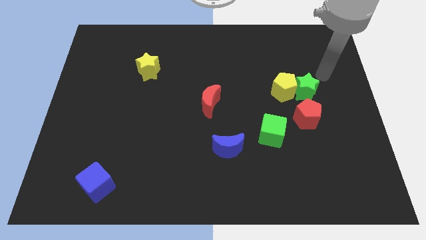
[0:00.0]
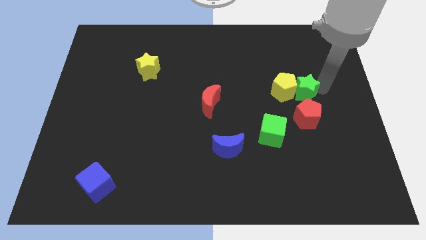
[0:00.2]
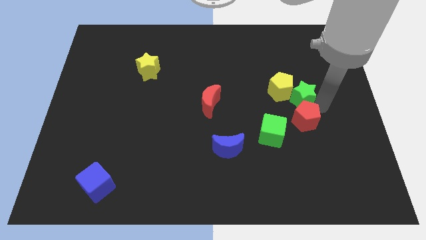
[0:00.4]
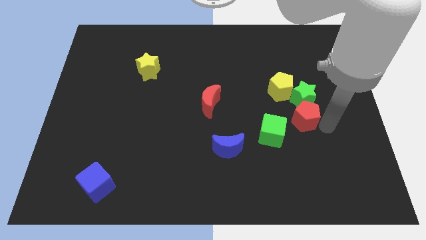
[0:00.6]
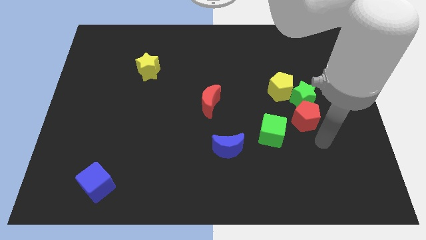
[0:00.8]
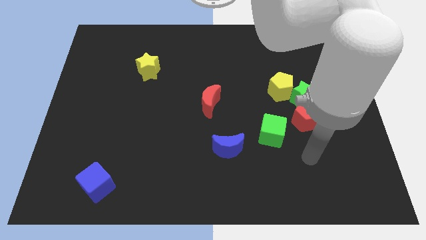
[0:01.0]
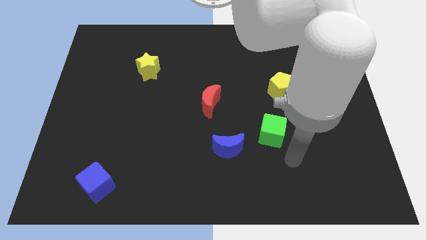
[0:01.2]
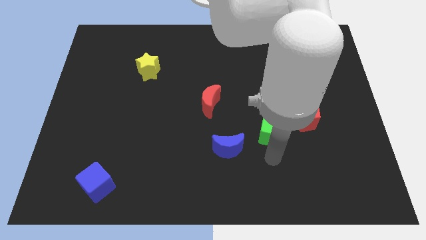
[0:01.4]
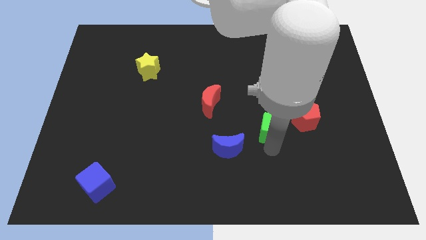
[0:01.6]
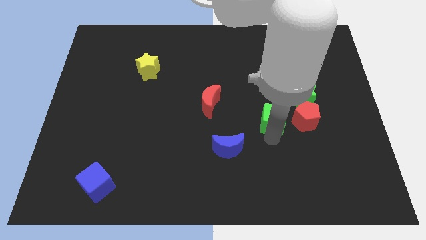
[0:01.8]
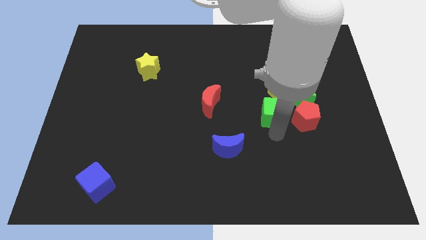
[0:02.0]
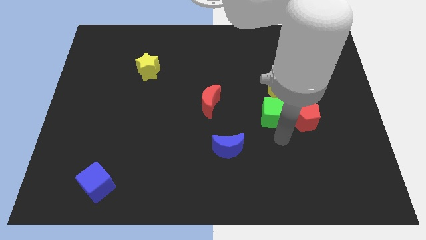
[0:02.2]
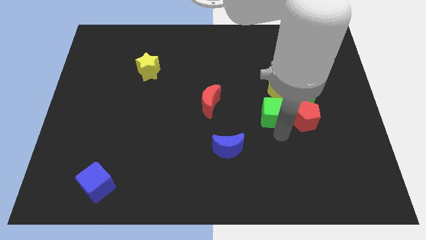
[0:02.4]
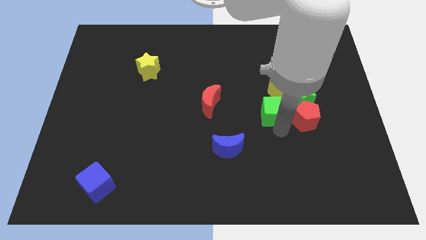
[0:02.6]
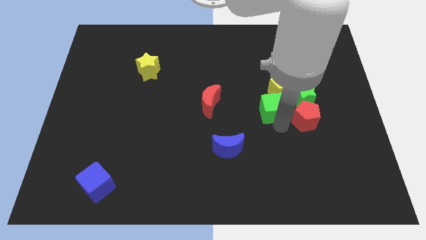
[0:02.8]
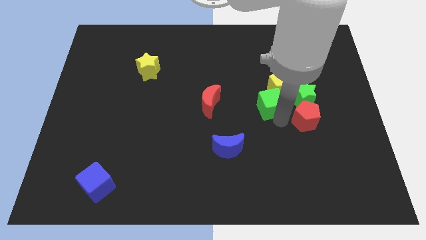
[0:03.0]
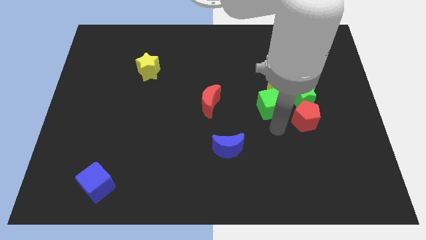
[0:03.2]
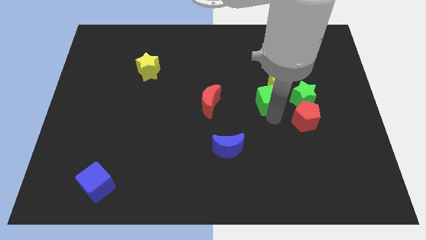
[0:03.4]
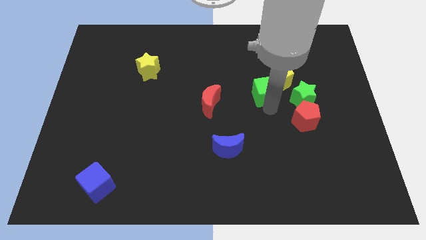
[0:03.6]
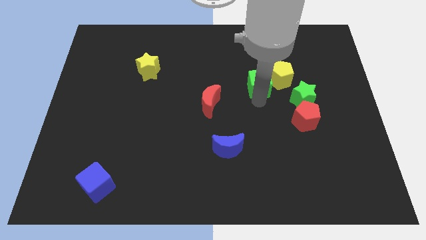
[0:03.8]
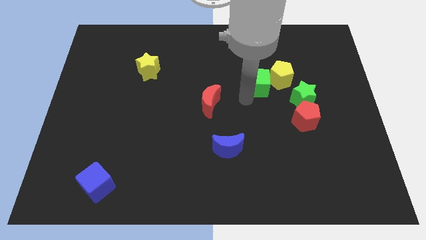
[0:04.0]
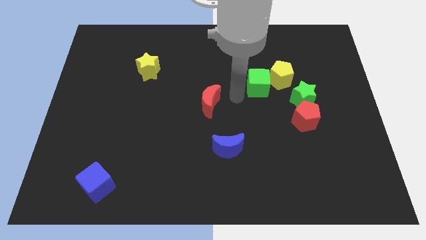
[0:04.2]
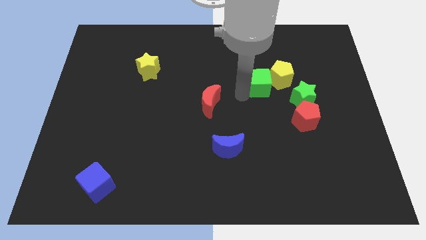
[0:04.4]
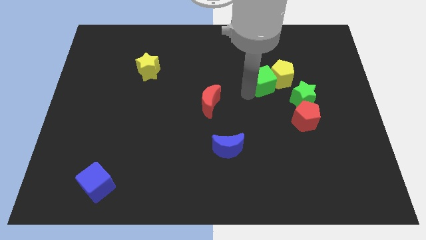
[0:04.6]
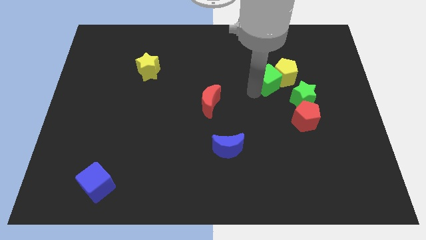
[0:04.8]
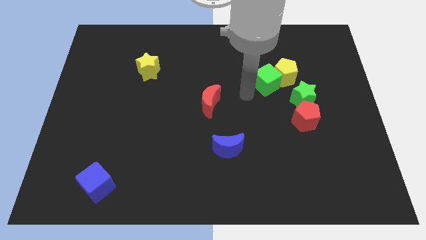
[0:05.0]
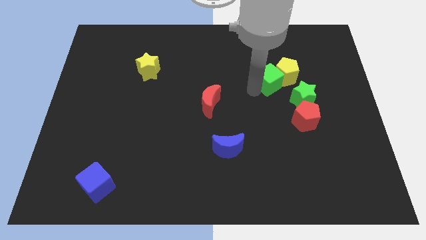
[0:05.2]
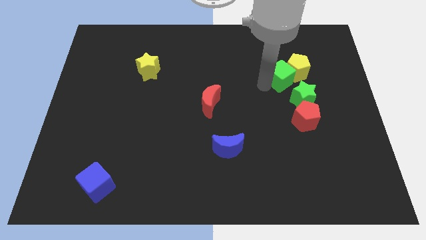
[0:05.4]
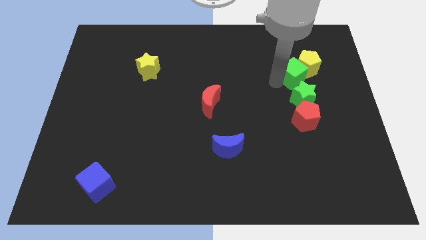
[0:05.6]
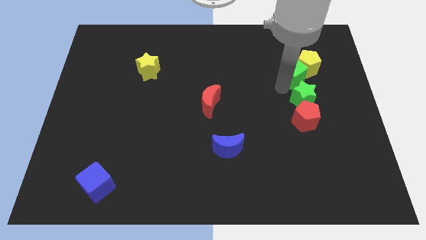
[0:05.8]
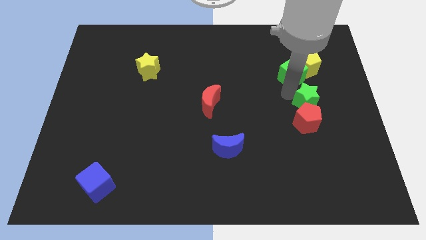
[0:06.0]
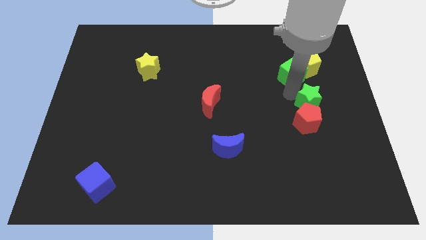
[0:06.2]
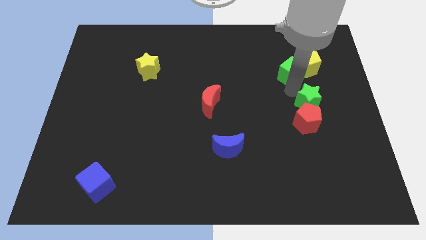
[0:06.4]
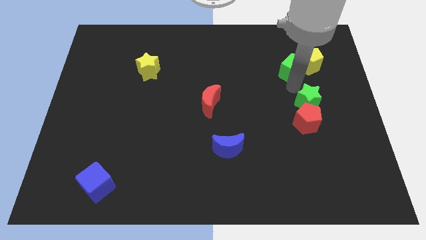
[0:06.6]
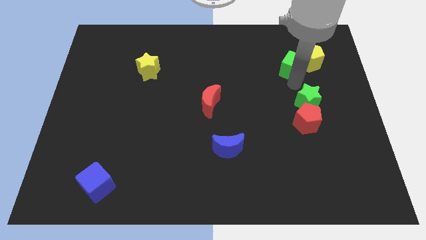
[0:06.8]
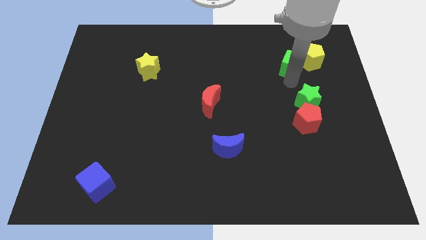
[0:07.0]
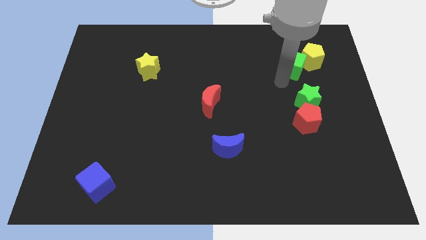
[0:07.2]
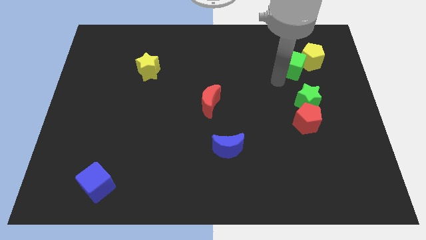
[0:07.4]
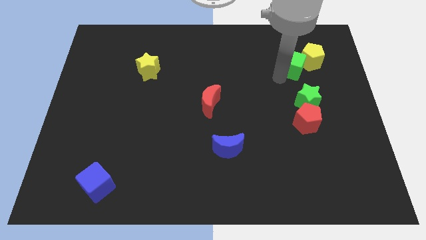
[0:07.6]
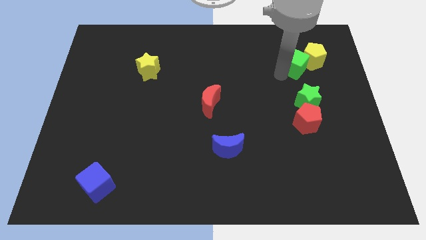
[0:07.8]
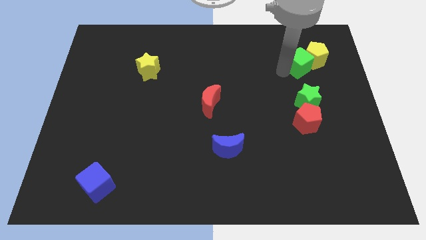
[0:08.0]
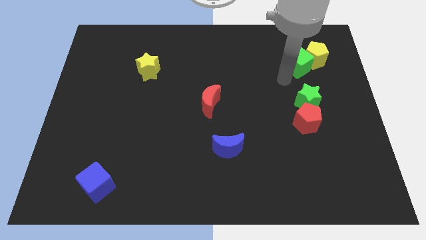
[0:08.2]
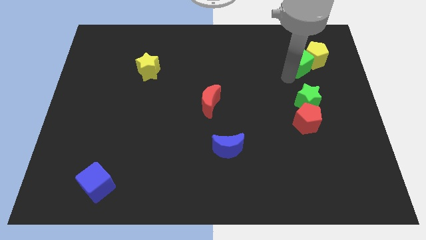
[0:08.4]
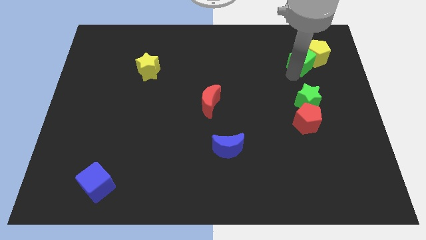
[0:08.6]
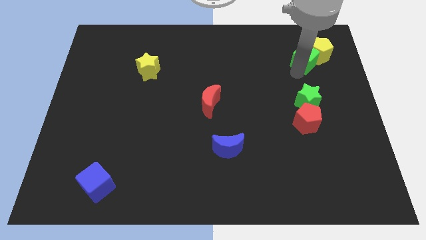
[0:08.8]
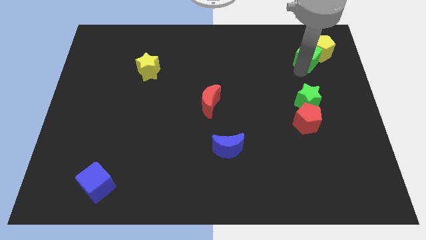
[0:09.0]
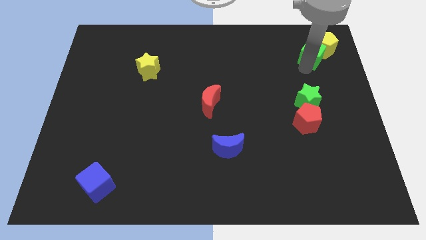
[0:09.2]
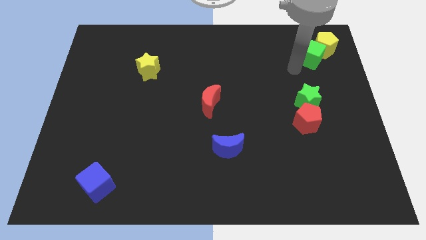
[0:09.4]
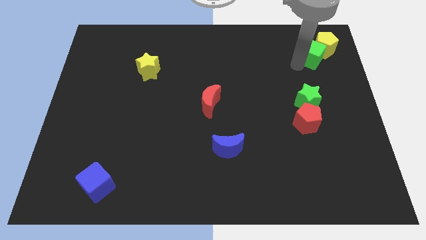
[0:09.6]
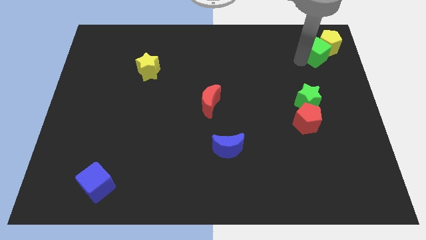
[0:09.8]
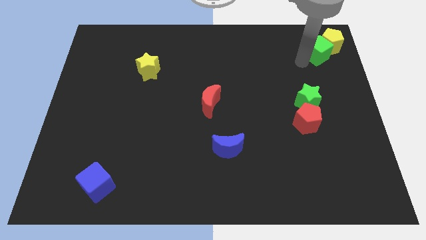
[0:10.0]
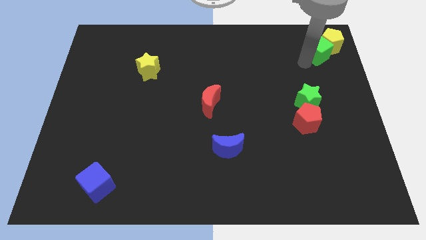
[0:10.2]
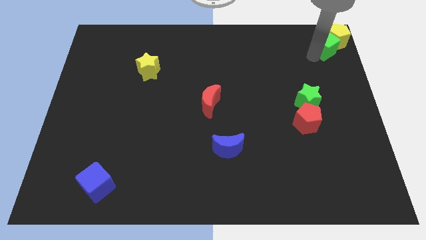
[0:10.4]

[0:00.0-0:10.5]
put the green cube to the upper right corner

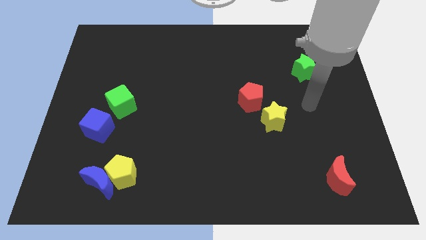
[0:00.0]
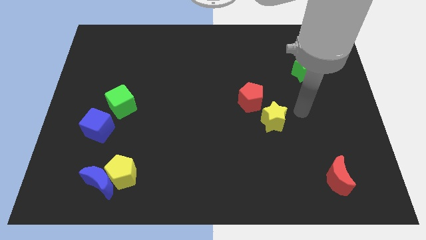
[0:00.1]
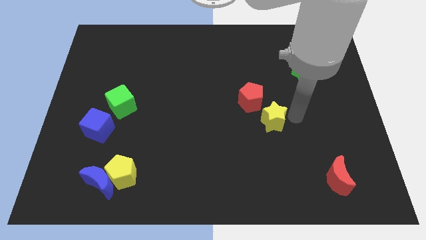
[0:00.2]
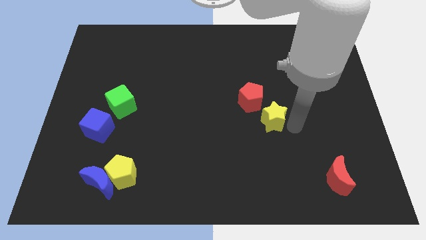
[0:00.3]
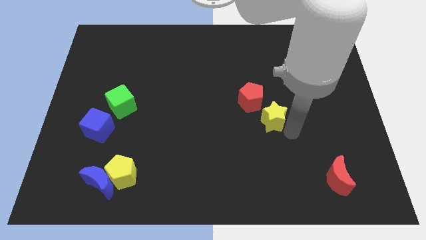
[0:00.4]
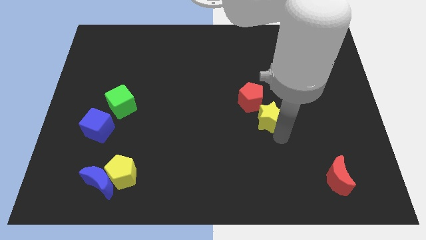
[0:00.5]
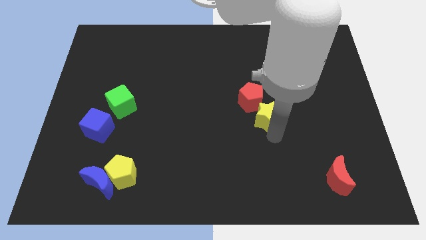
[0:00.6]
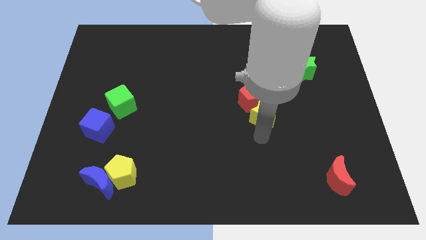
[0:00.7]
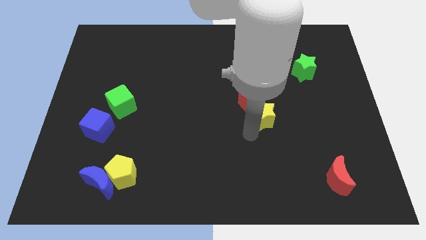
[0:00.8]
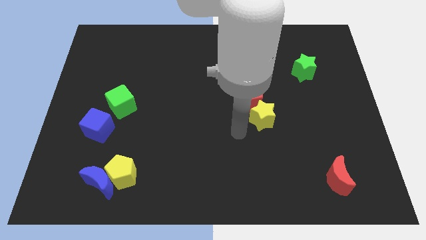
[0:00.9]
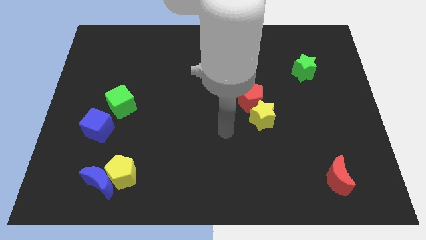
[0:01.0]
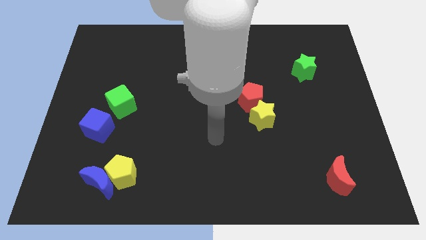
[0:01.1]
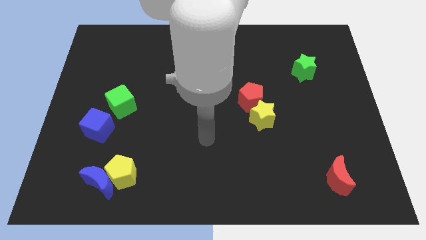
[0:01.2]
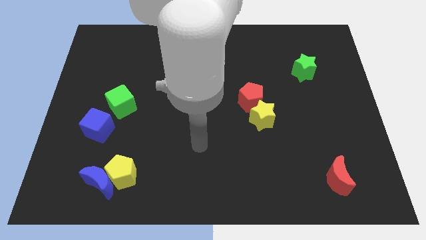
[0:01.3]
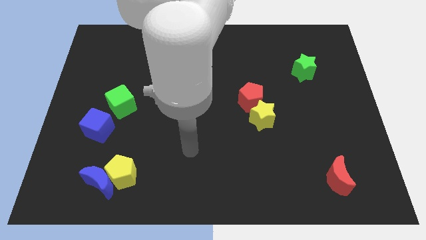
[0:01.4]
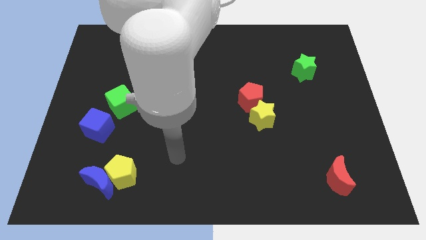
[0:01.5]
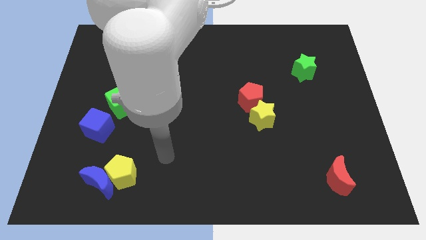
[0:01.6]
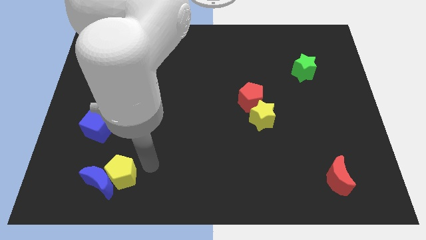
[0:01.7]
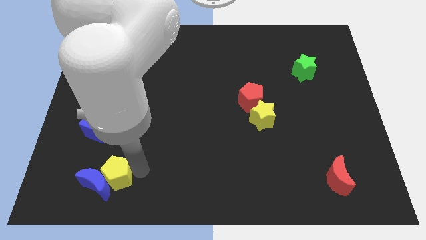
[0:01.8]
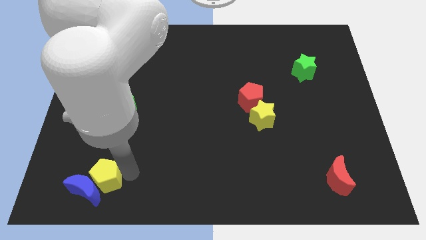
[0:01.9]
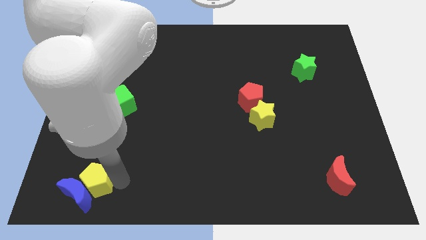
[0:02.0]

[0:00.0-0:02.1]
put the blue moon to the bottom left of the board
